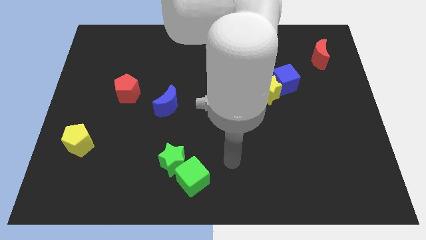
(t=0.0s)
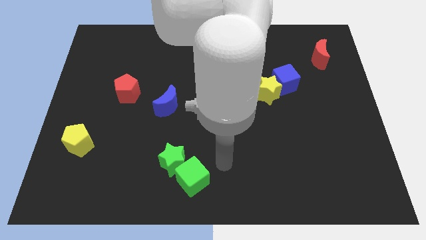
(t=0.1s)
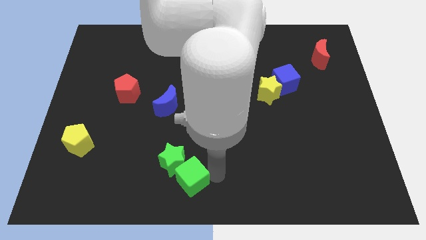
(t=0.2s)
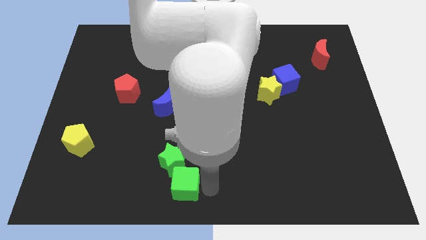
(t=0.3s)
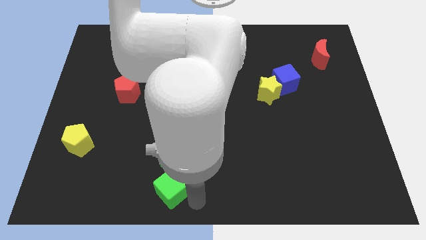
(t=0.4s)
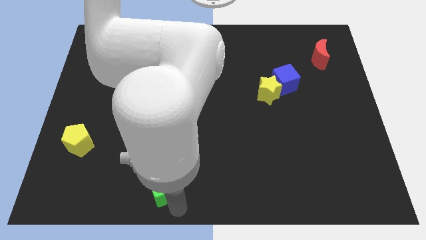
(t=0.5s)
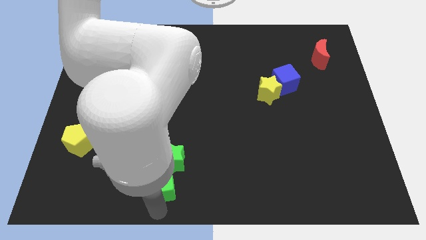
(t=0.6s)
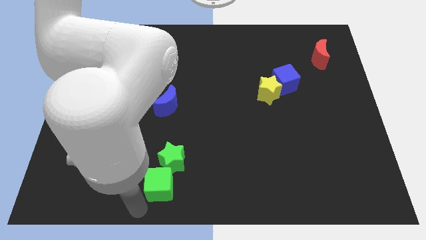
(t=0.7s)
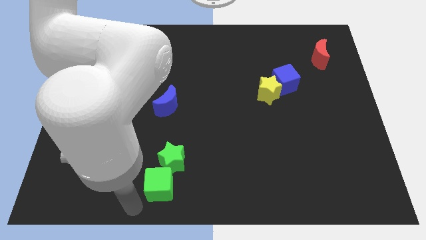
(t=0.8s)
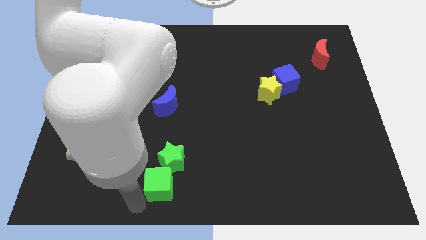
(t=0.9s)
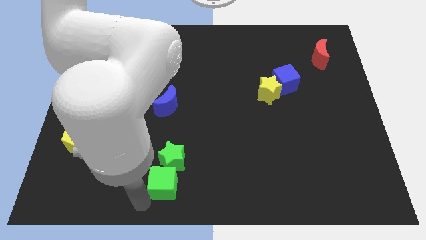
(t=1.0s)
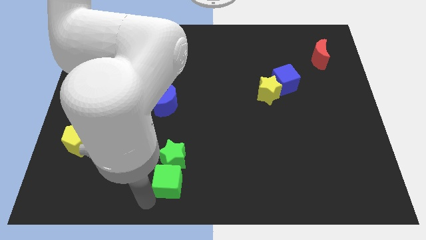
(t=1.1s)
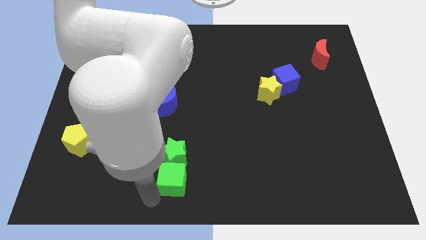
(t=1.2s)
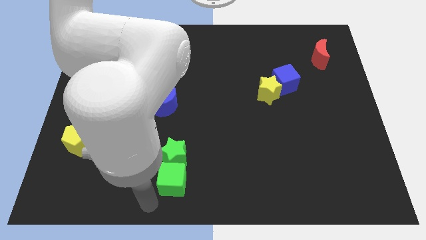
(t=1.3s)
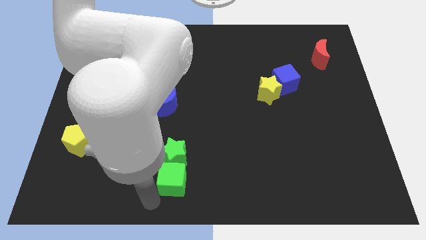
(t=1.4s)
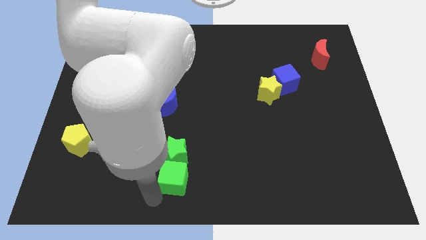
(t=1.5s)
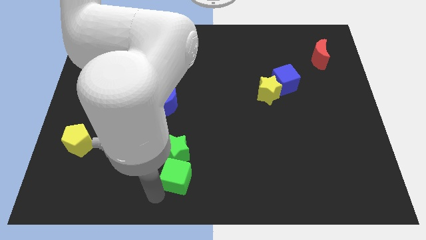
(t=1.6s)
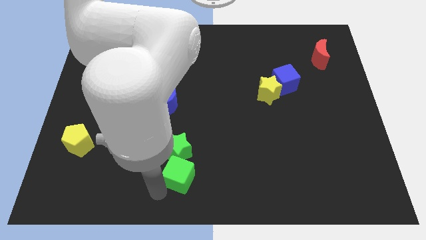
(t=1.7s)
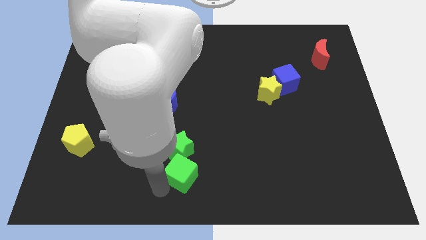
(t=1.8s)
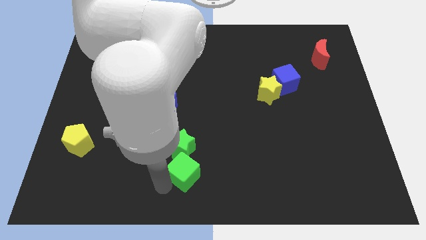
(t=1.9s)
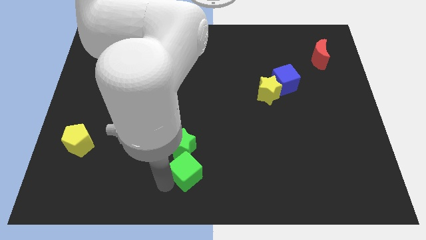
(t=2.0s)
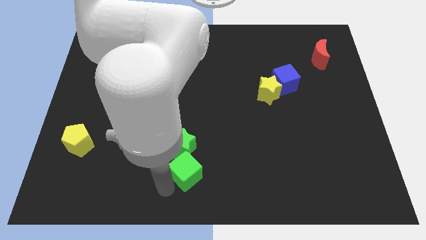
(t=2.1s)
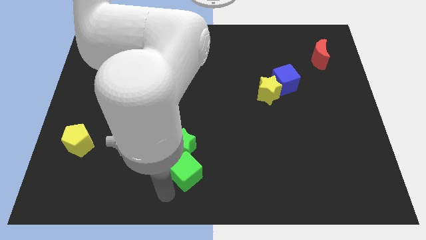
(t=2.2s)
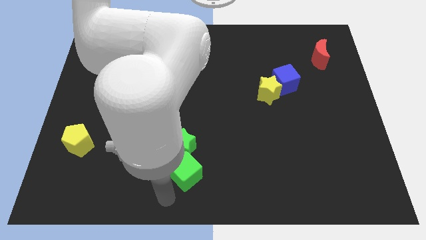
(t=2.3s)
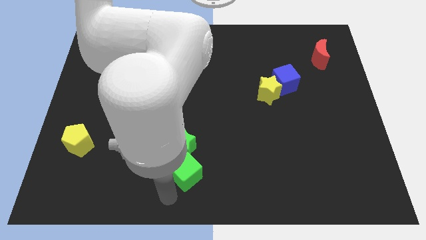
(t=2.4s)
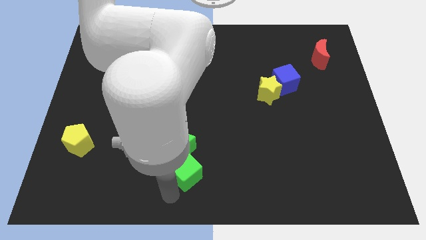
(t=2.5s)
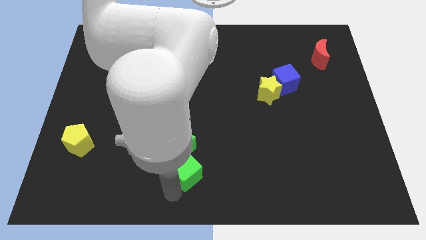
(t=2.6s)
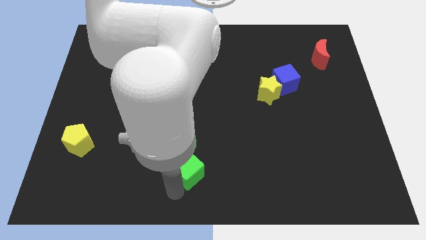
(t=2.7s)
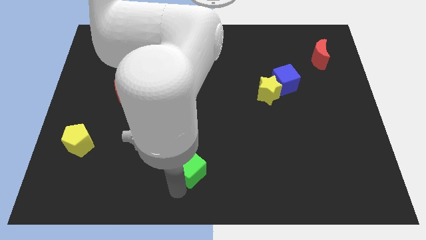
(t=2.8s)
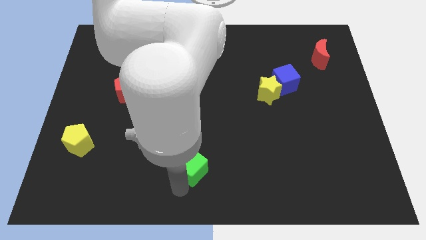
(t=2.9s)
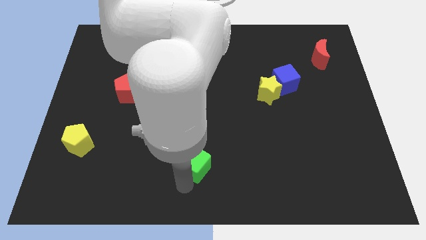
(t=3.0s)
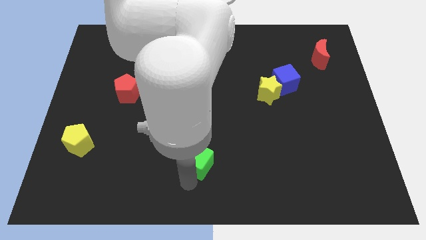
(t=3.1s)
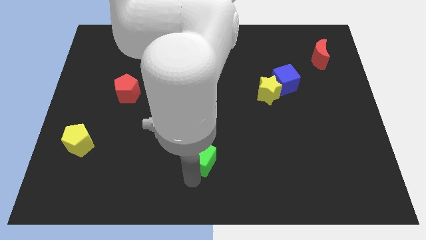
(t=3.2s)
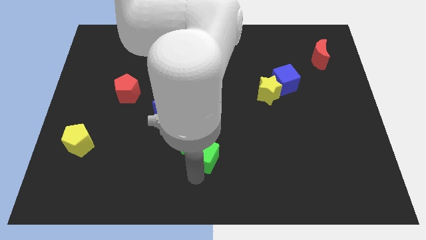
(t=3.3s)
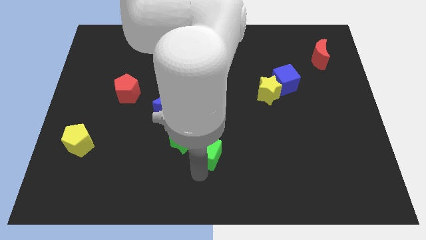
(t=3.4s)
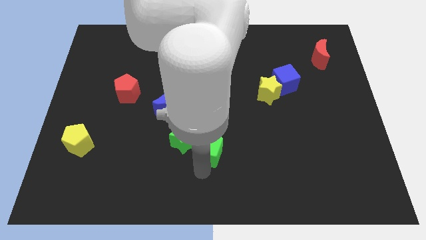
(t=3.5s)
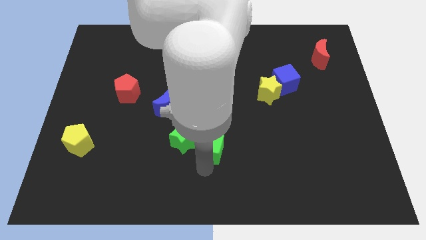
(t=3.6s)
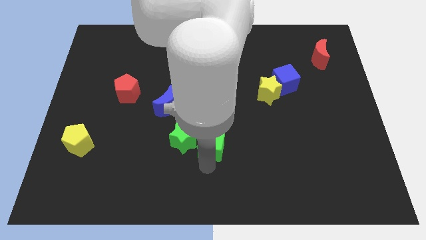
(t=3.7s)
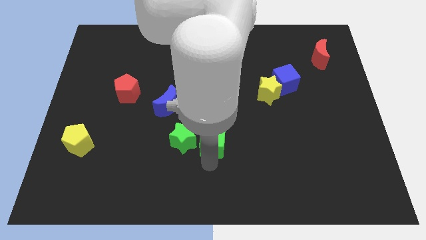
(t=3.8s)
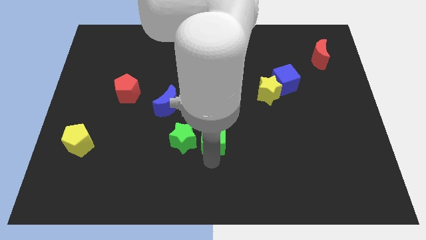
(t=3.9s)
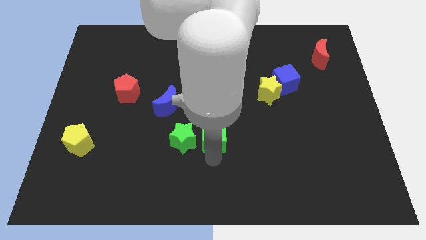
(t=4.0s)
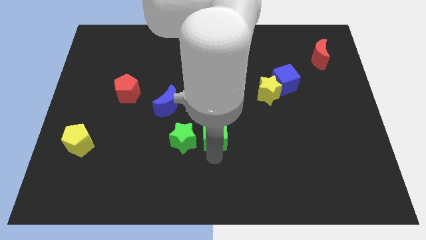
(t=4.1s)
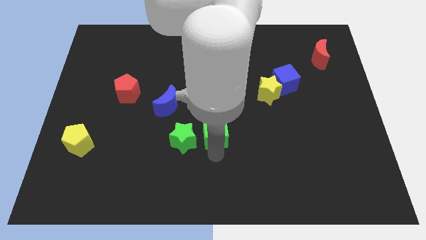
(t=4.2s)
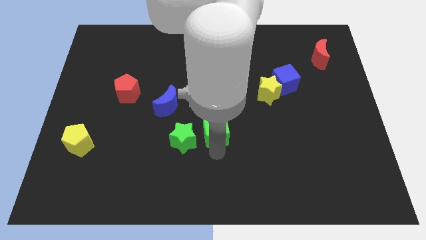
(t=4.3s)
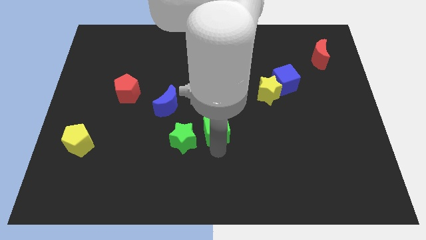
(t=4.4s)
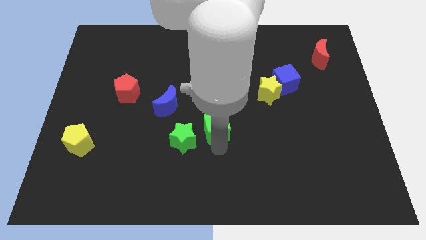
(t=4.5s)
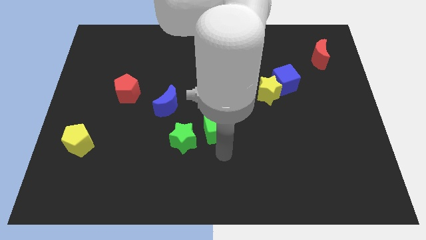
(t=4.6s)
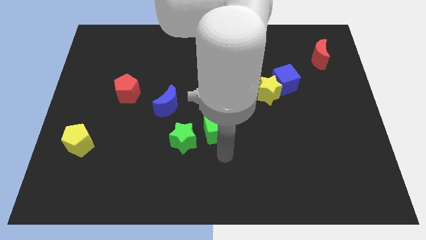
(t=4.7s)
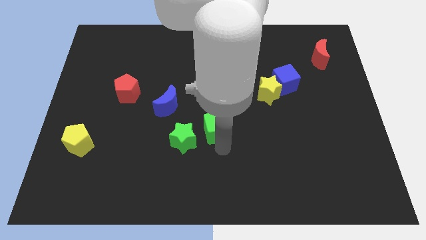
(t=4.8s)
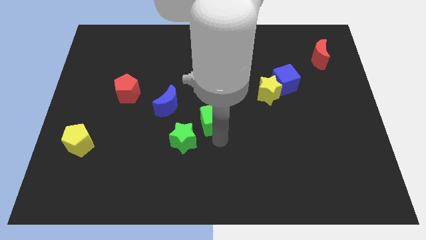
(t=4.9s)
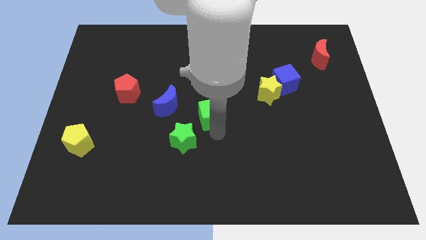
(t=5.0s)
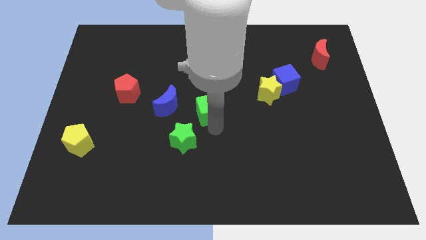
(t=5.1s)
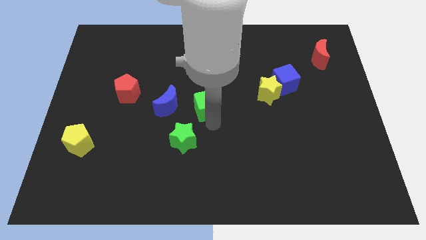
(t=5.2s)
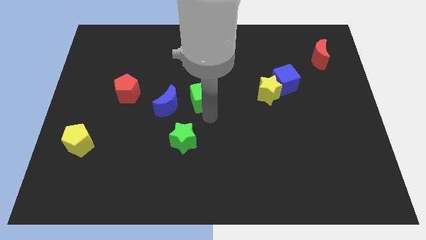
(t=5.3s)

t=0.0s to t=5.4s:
move the green cube up

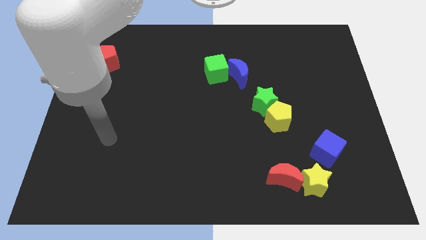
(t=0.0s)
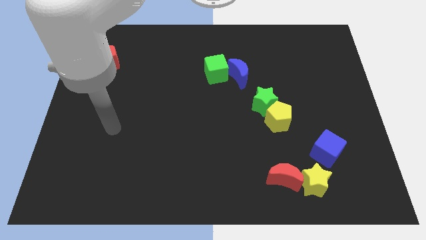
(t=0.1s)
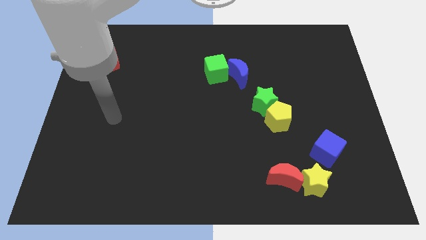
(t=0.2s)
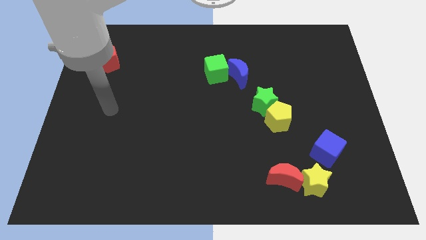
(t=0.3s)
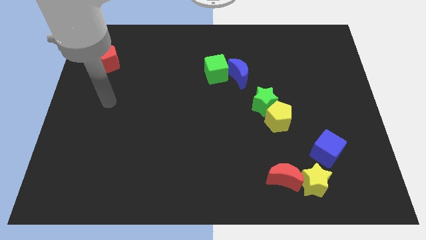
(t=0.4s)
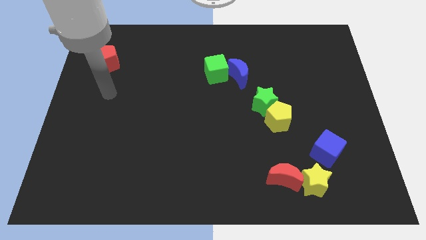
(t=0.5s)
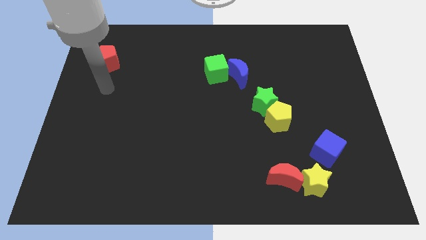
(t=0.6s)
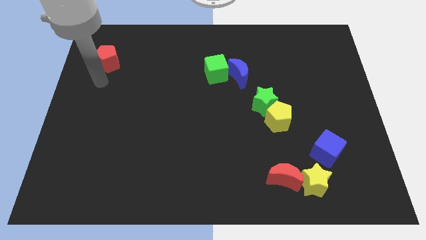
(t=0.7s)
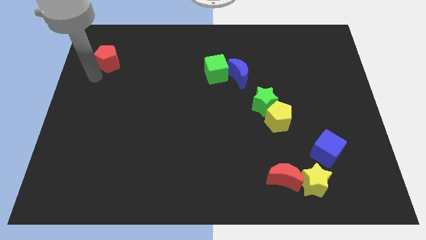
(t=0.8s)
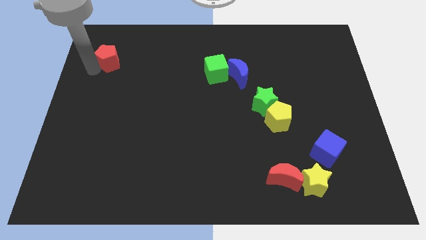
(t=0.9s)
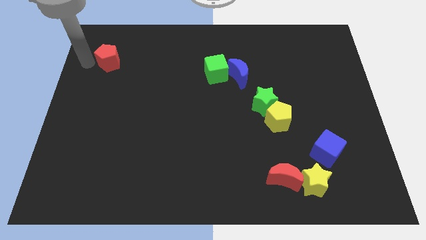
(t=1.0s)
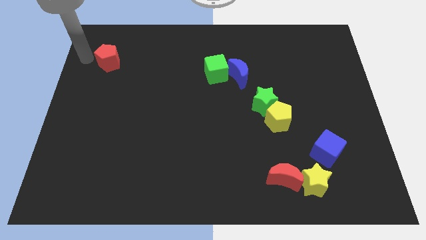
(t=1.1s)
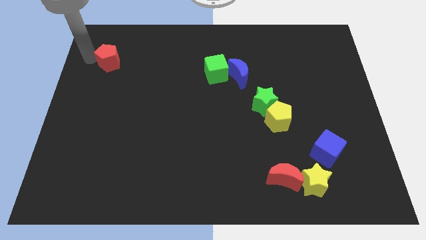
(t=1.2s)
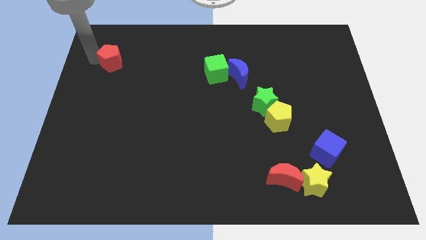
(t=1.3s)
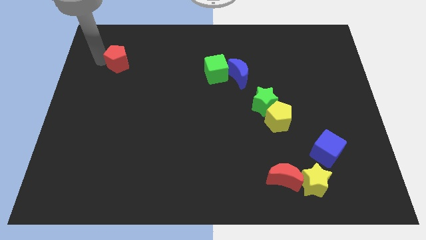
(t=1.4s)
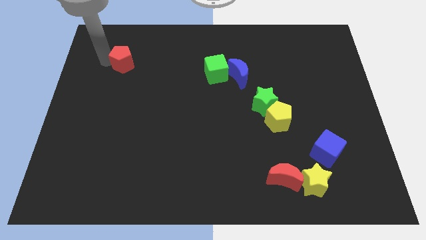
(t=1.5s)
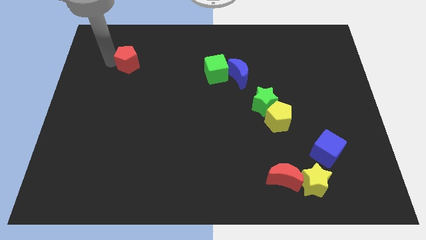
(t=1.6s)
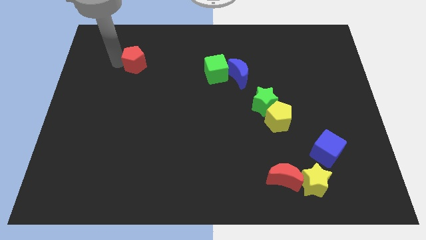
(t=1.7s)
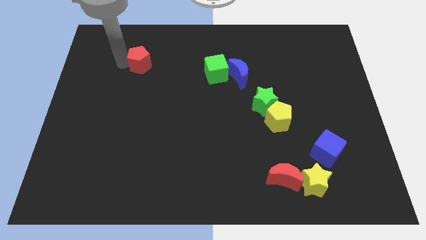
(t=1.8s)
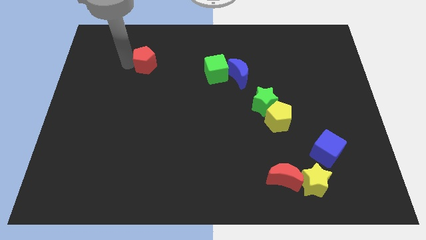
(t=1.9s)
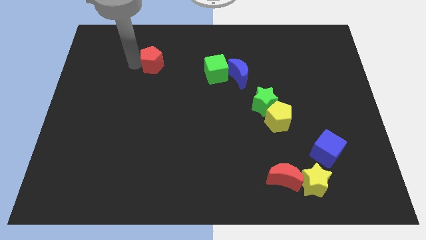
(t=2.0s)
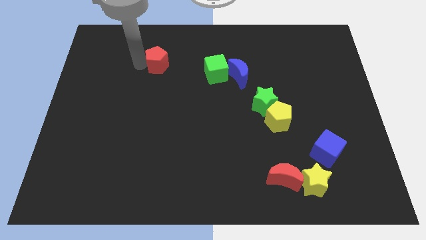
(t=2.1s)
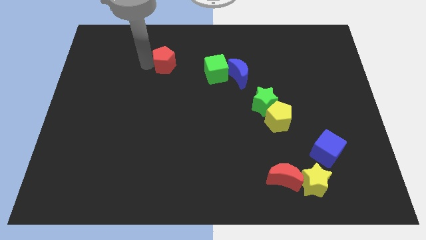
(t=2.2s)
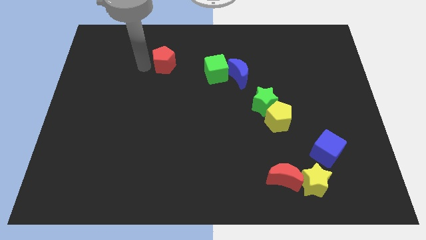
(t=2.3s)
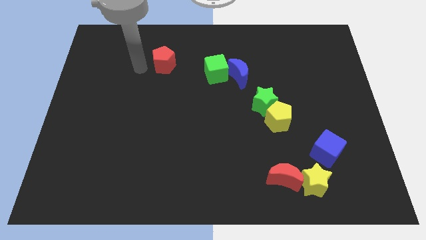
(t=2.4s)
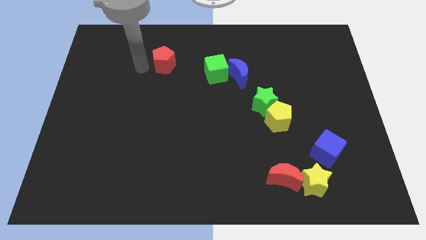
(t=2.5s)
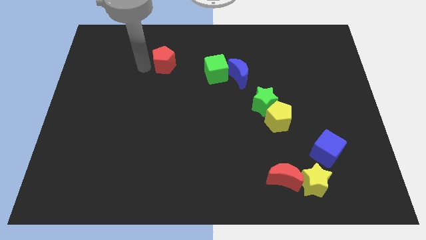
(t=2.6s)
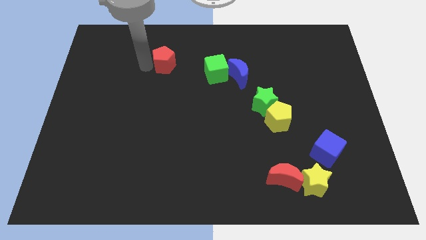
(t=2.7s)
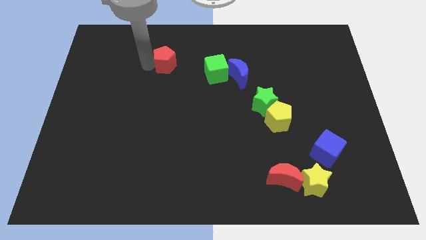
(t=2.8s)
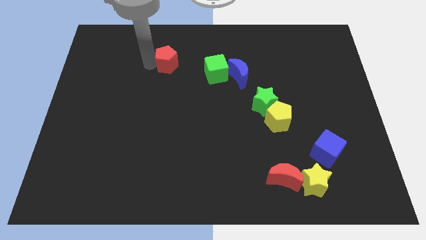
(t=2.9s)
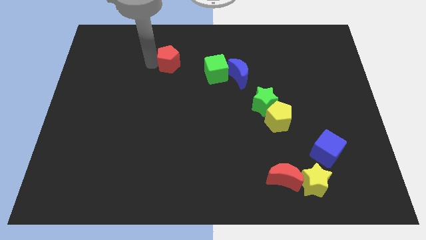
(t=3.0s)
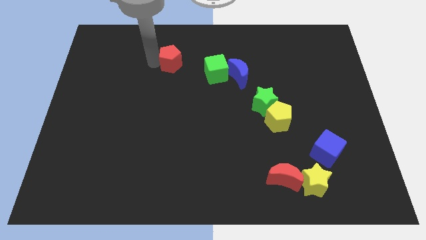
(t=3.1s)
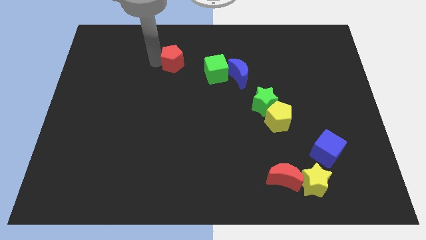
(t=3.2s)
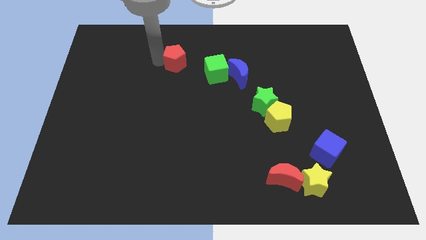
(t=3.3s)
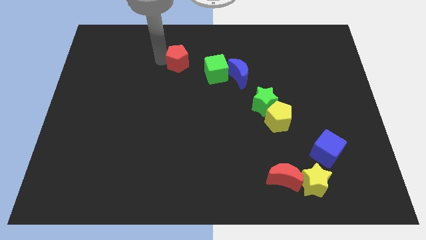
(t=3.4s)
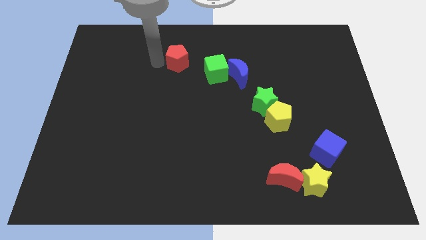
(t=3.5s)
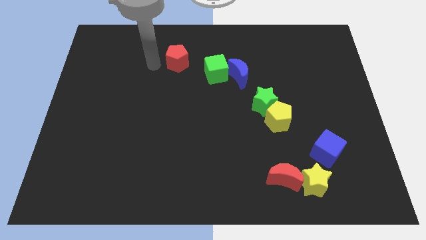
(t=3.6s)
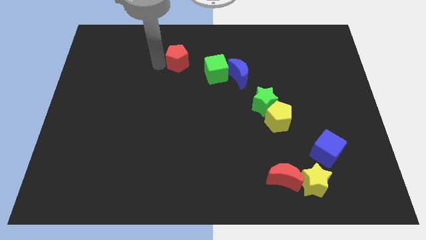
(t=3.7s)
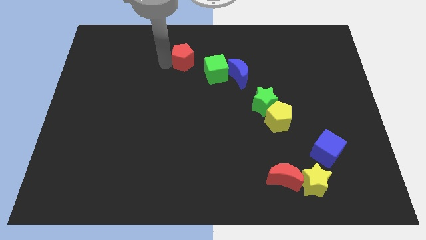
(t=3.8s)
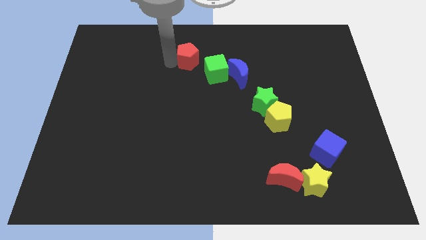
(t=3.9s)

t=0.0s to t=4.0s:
slide the red pentagon to the right
